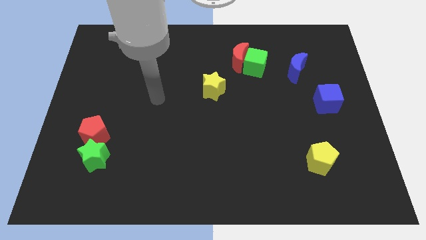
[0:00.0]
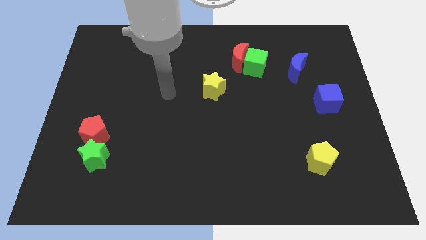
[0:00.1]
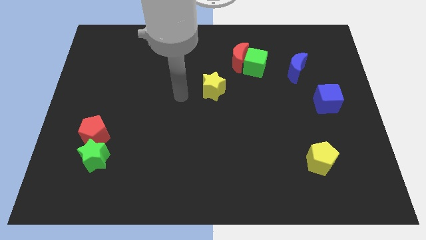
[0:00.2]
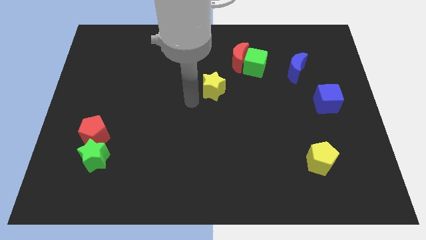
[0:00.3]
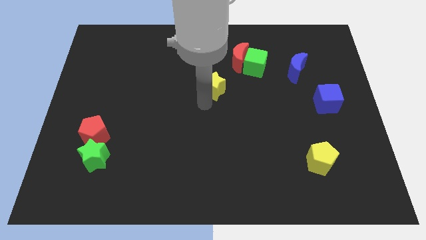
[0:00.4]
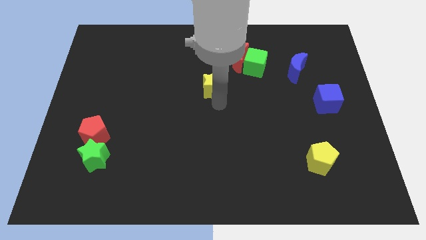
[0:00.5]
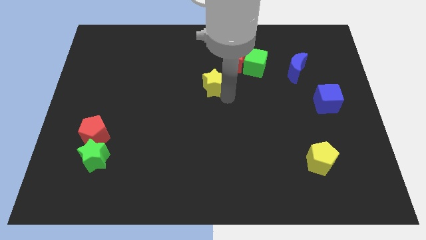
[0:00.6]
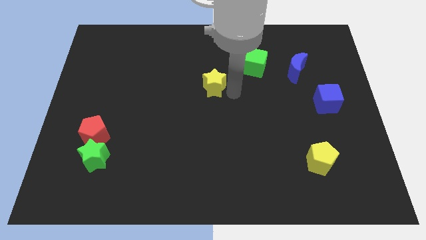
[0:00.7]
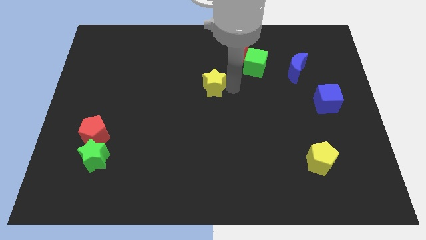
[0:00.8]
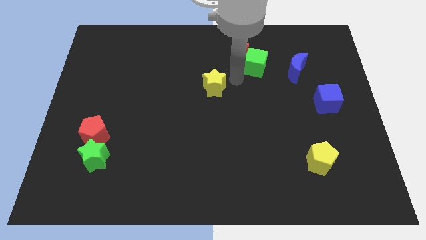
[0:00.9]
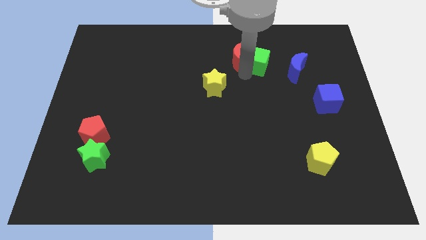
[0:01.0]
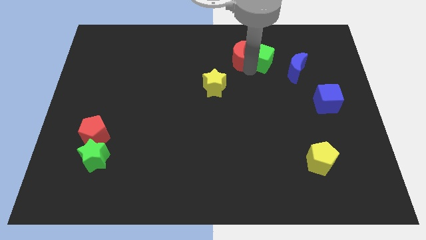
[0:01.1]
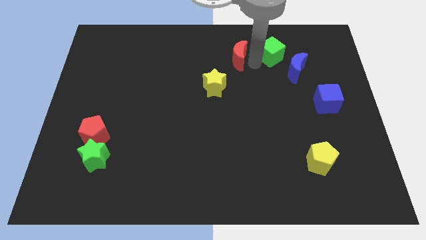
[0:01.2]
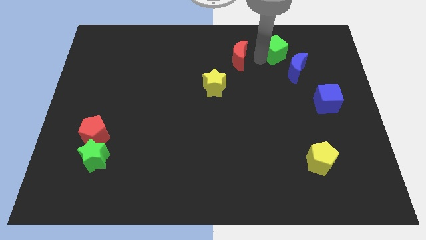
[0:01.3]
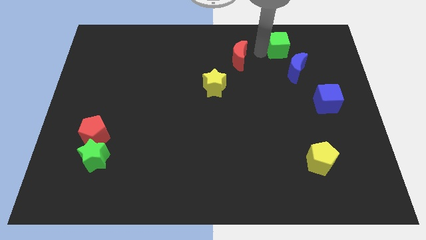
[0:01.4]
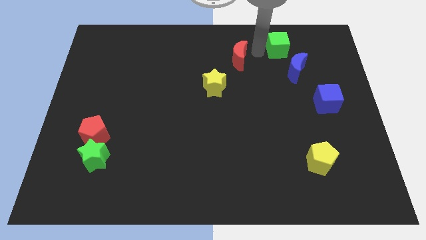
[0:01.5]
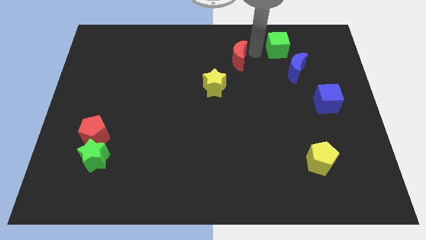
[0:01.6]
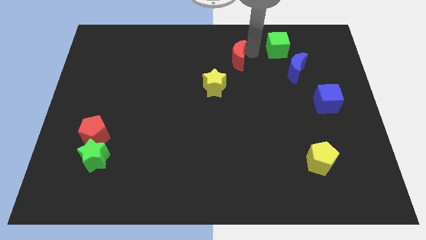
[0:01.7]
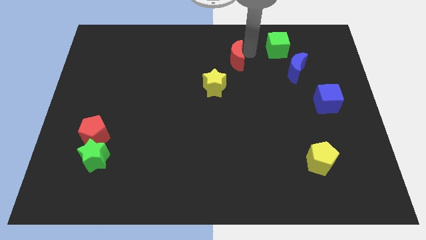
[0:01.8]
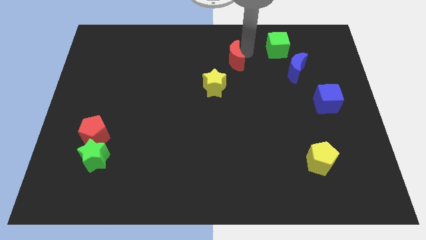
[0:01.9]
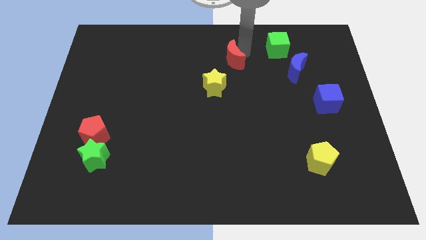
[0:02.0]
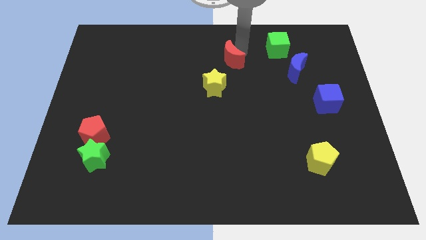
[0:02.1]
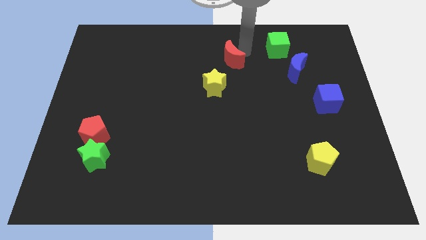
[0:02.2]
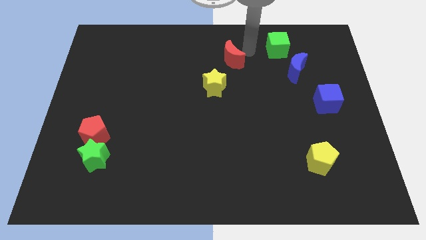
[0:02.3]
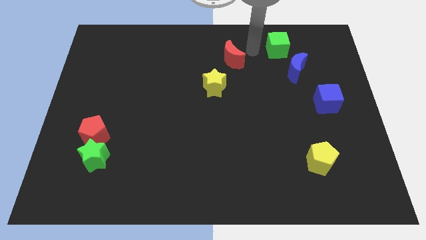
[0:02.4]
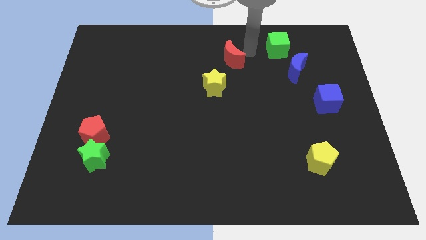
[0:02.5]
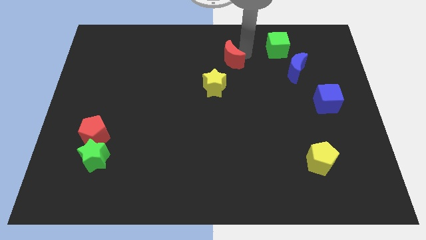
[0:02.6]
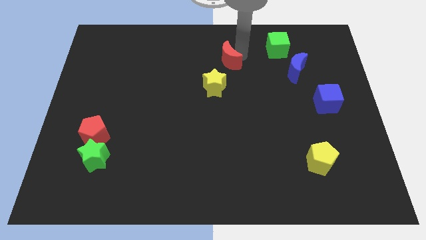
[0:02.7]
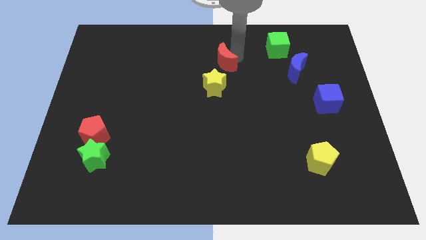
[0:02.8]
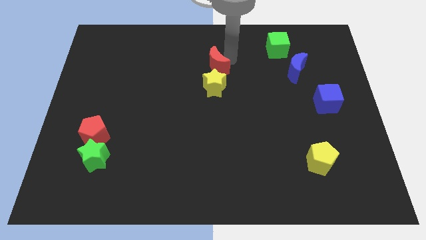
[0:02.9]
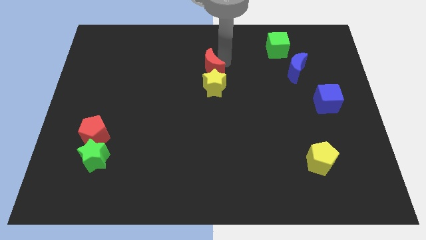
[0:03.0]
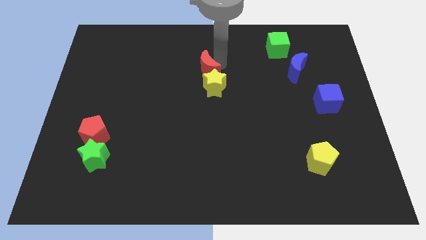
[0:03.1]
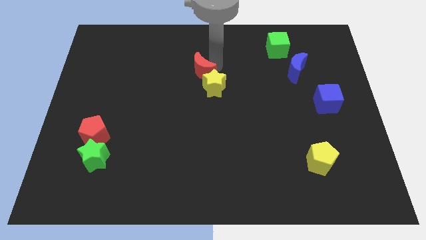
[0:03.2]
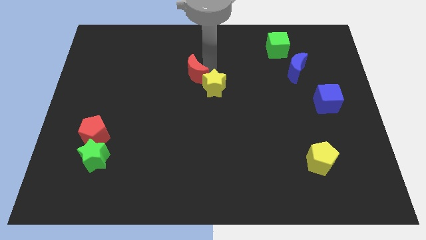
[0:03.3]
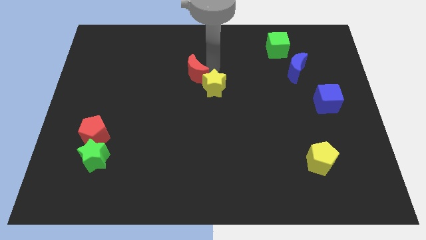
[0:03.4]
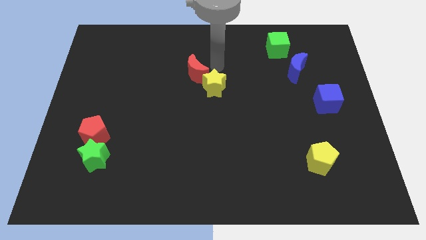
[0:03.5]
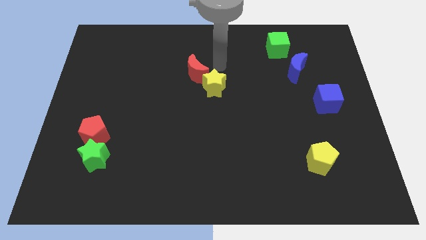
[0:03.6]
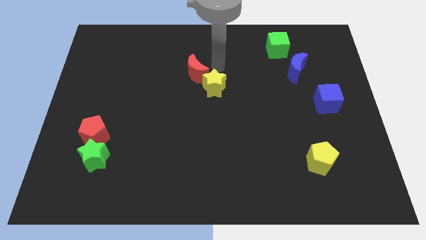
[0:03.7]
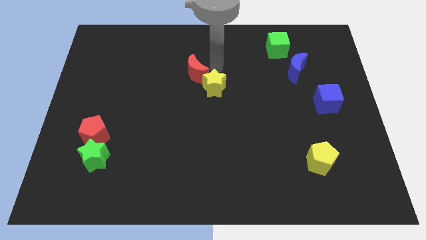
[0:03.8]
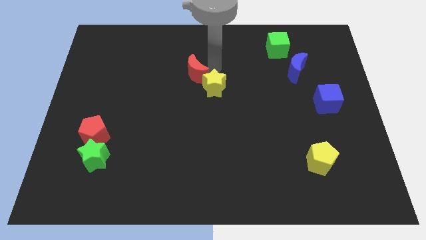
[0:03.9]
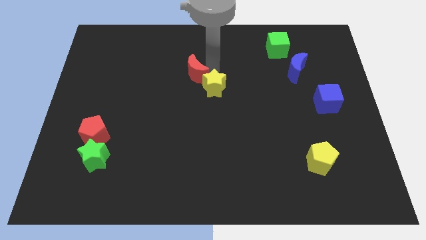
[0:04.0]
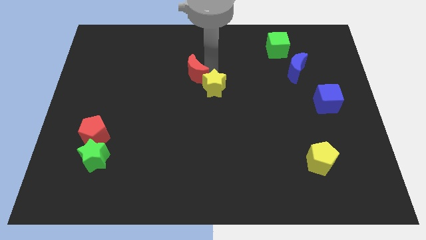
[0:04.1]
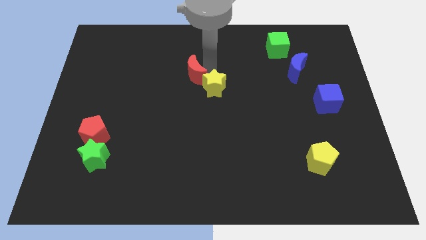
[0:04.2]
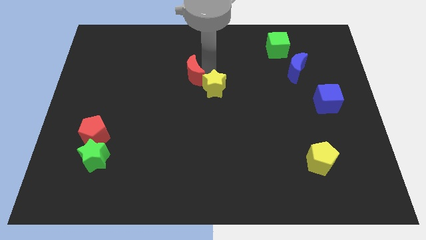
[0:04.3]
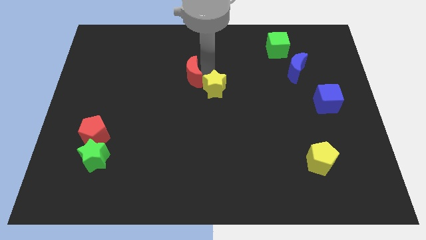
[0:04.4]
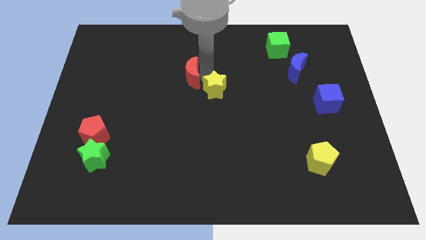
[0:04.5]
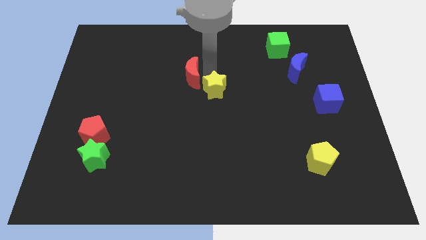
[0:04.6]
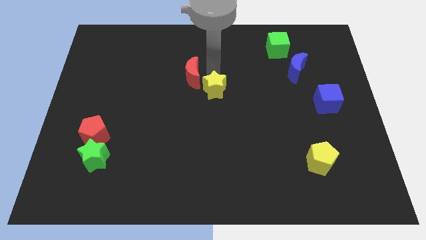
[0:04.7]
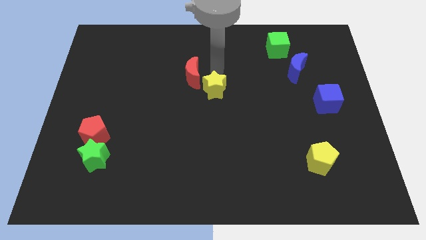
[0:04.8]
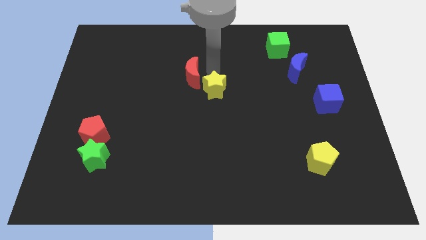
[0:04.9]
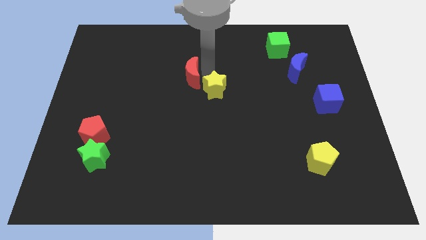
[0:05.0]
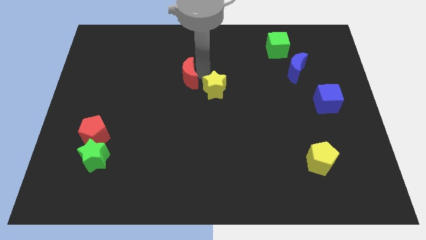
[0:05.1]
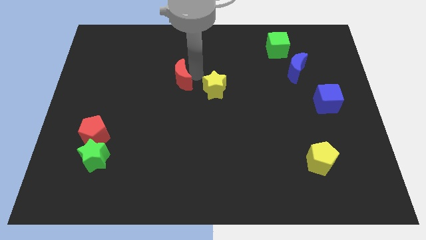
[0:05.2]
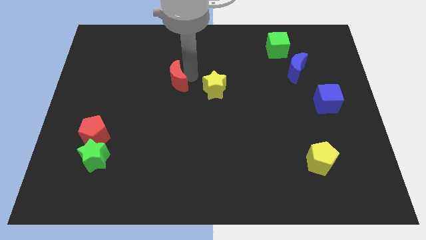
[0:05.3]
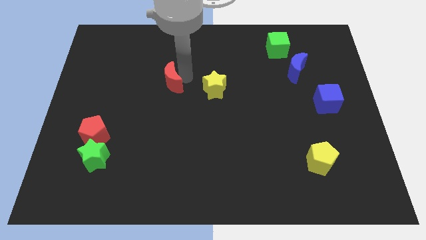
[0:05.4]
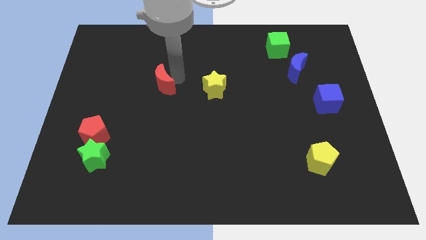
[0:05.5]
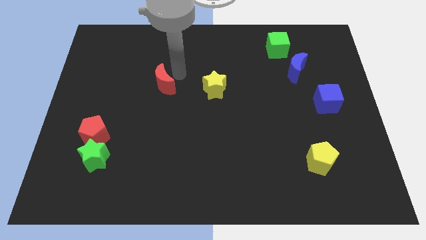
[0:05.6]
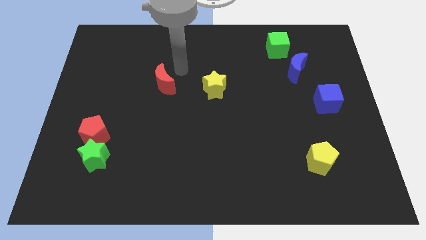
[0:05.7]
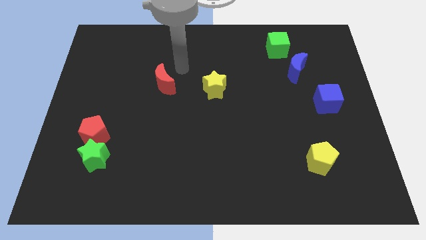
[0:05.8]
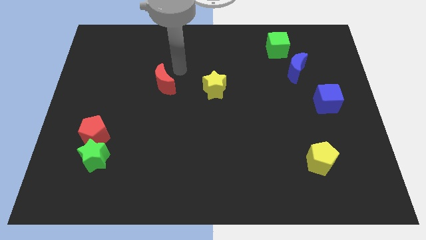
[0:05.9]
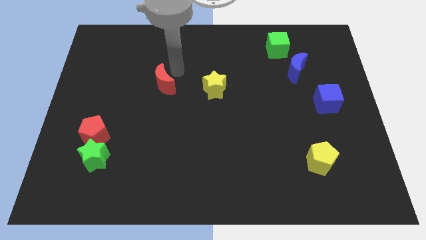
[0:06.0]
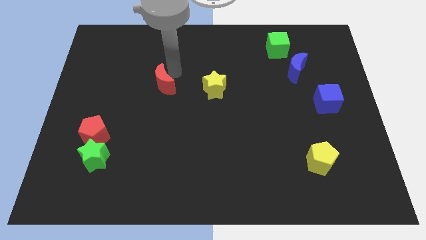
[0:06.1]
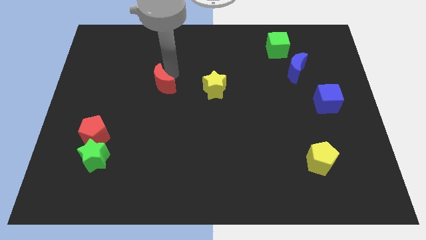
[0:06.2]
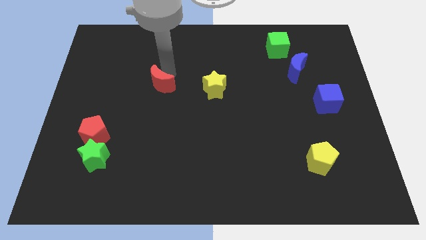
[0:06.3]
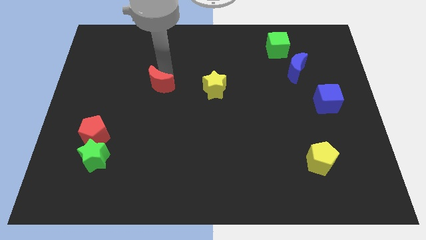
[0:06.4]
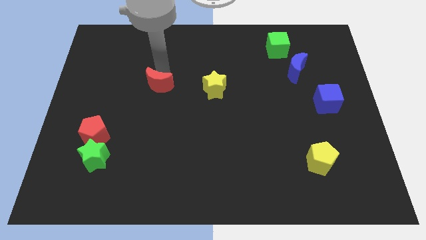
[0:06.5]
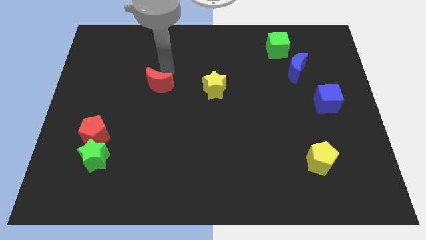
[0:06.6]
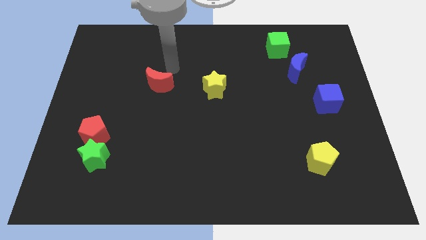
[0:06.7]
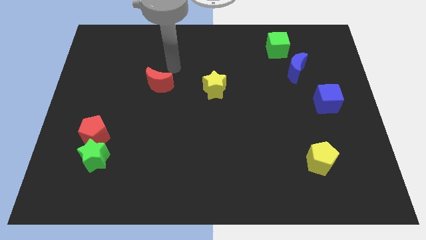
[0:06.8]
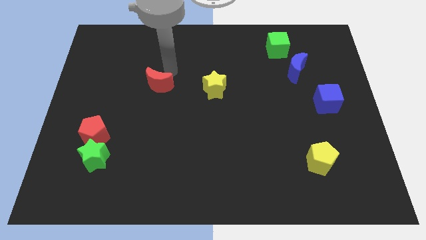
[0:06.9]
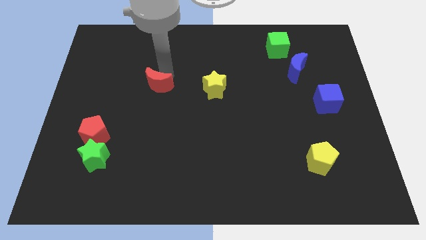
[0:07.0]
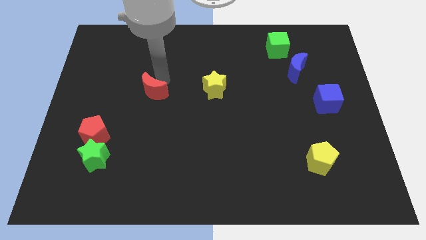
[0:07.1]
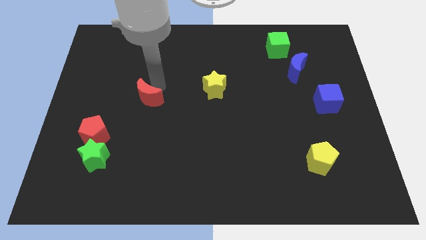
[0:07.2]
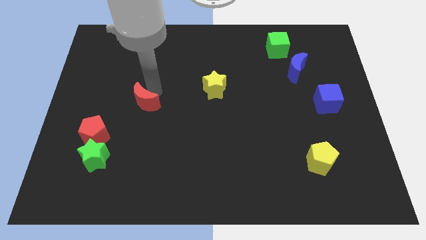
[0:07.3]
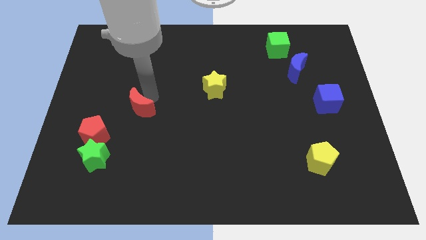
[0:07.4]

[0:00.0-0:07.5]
slide the red moon to the top right of the red pentagon
